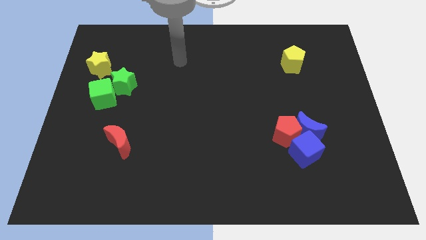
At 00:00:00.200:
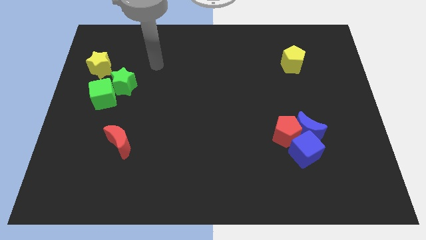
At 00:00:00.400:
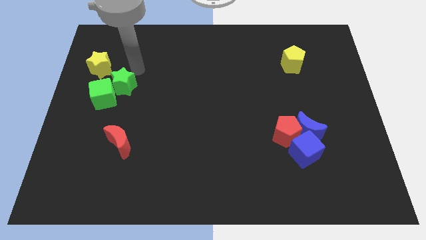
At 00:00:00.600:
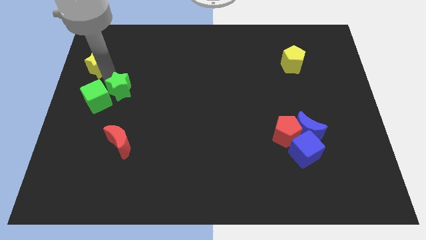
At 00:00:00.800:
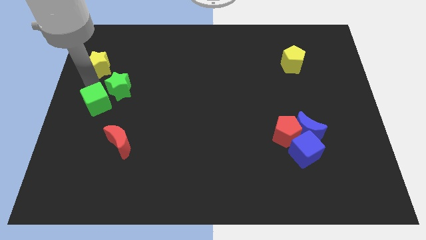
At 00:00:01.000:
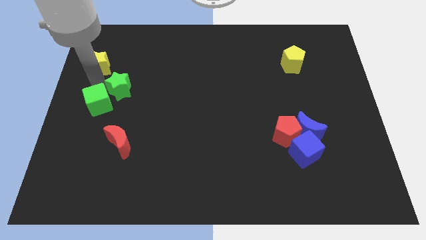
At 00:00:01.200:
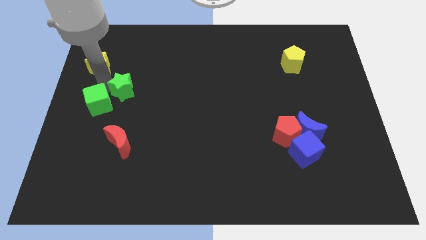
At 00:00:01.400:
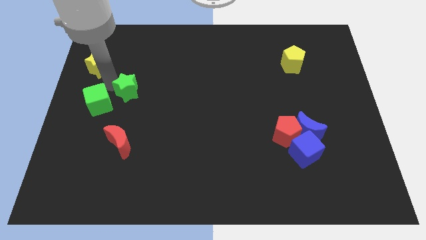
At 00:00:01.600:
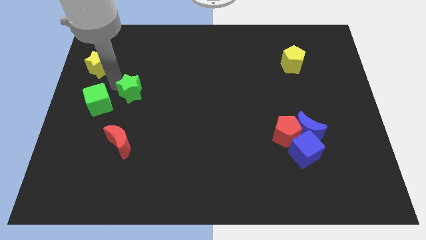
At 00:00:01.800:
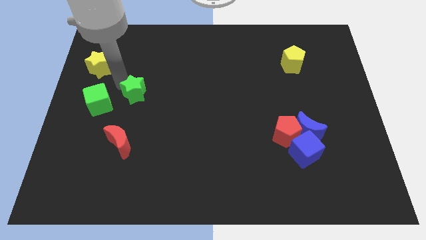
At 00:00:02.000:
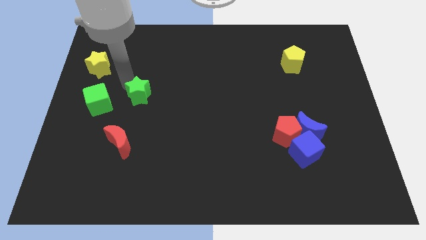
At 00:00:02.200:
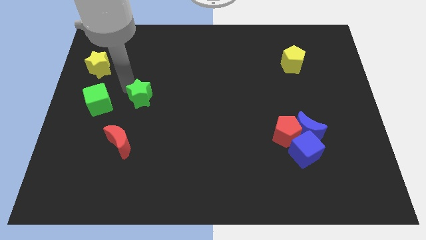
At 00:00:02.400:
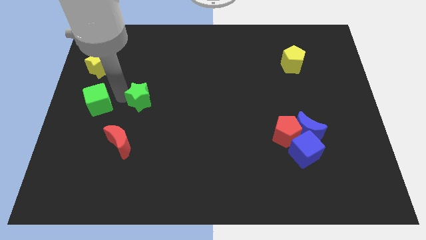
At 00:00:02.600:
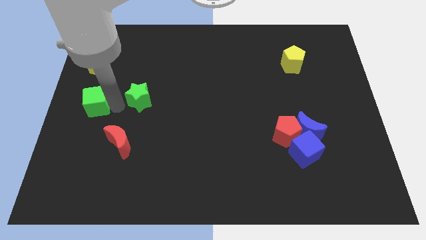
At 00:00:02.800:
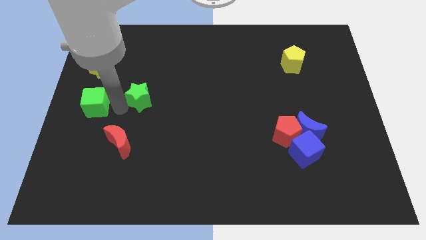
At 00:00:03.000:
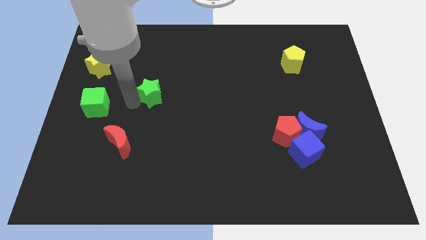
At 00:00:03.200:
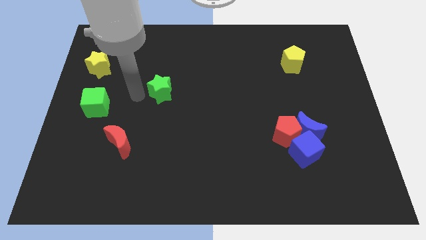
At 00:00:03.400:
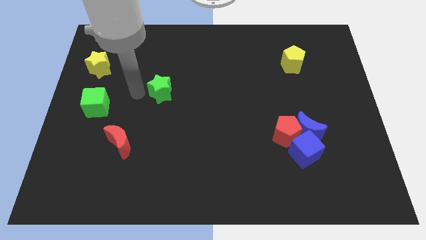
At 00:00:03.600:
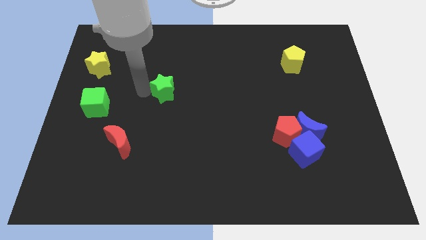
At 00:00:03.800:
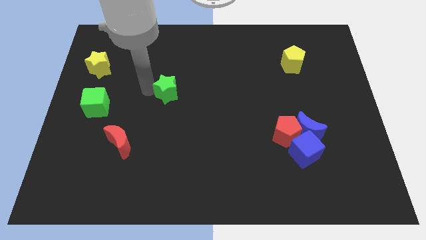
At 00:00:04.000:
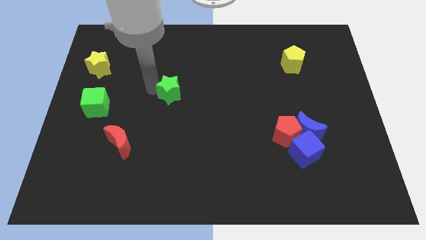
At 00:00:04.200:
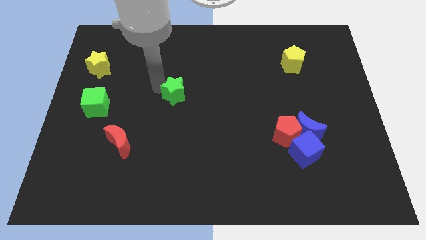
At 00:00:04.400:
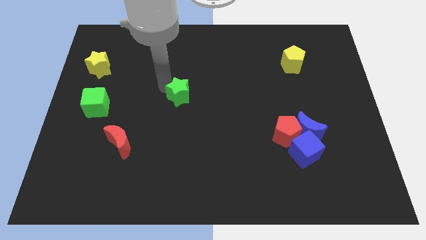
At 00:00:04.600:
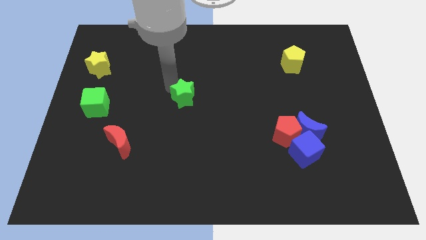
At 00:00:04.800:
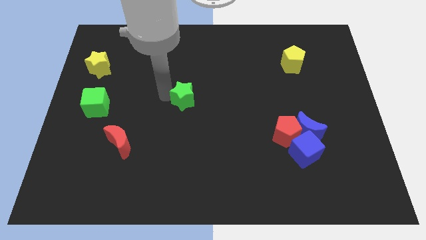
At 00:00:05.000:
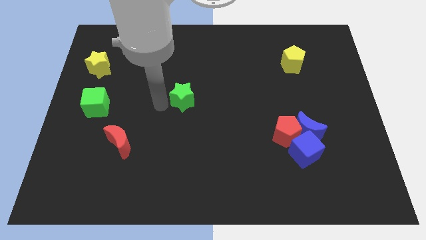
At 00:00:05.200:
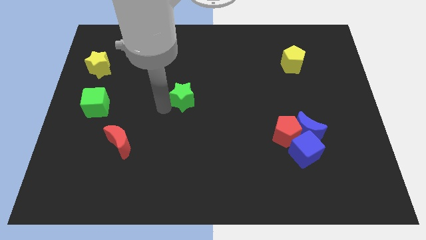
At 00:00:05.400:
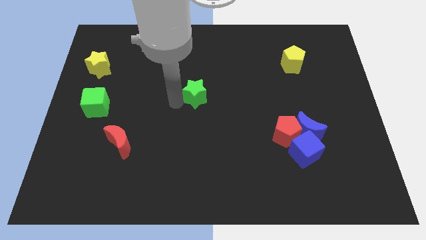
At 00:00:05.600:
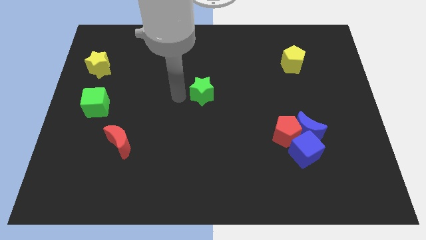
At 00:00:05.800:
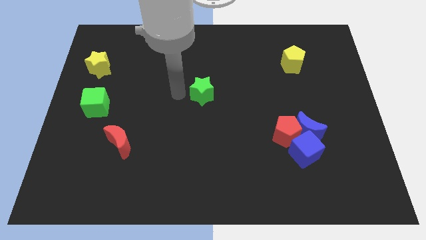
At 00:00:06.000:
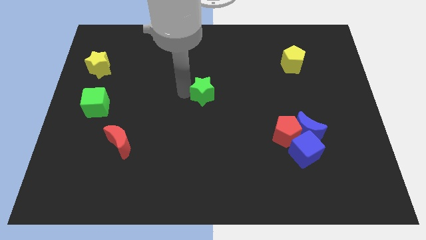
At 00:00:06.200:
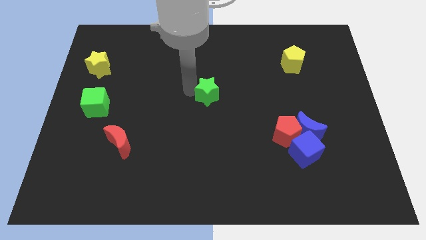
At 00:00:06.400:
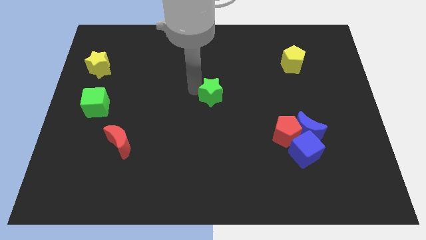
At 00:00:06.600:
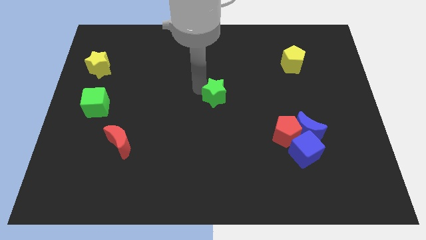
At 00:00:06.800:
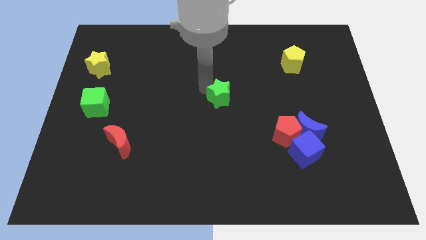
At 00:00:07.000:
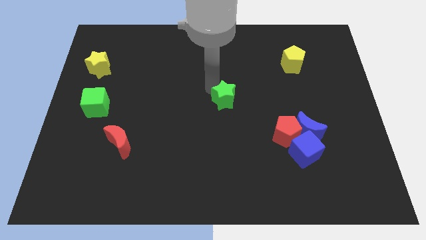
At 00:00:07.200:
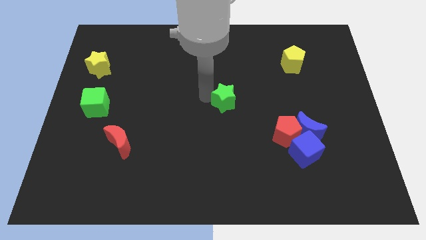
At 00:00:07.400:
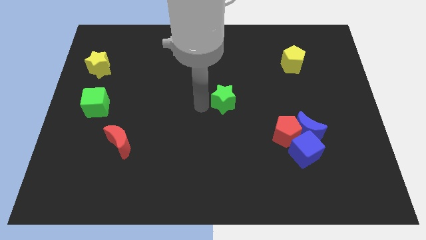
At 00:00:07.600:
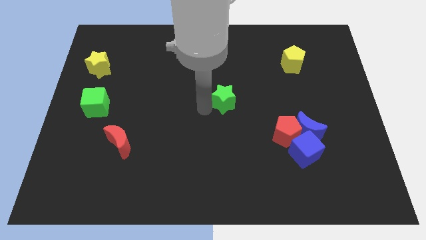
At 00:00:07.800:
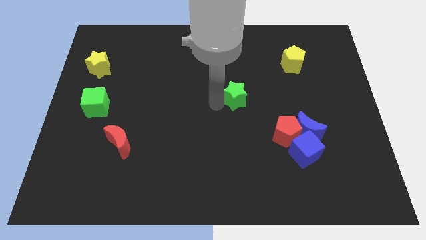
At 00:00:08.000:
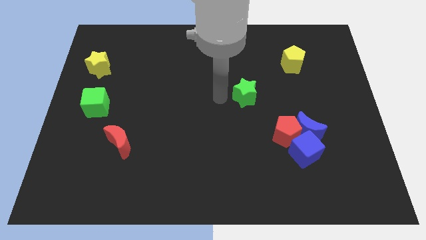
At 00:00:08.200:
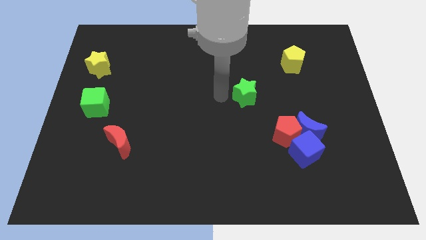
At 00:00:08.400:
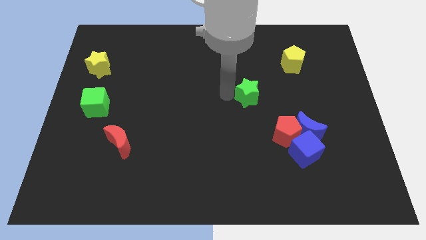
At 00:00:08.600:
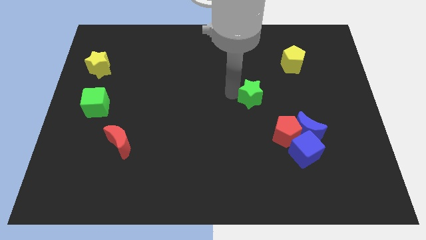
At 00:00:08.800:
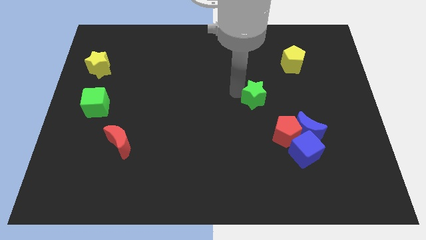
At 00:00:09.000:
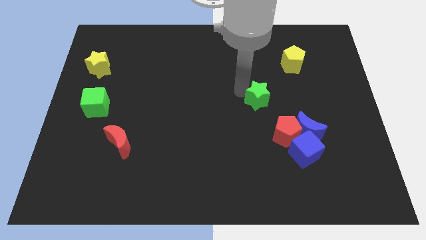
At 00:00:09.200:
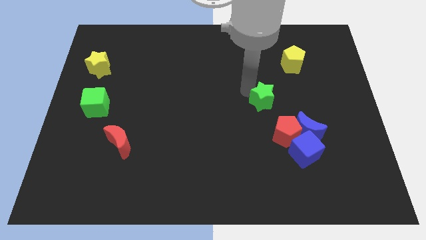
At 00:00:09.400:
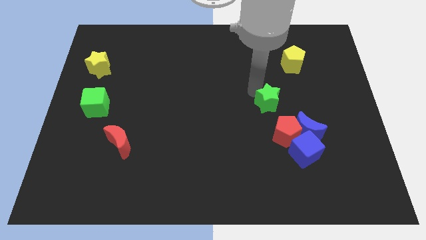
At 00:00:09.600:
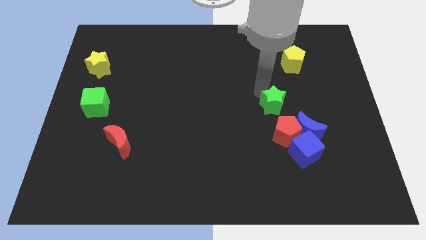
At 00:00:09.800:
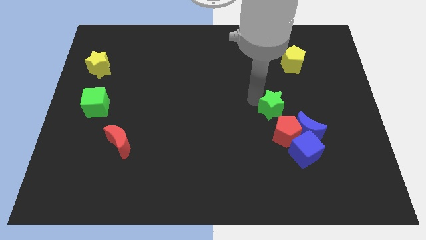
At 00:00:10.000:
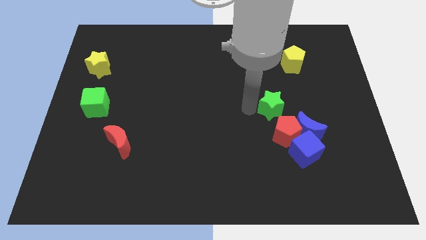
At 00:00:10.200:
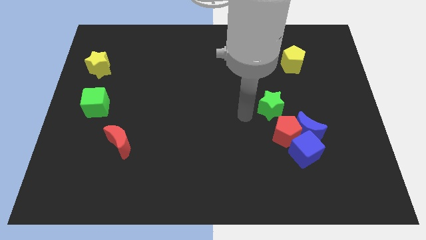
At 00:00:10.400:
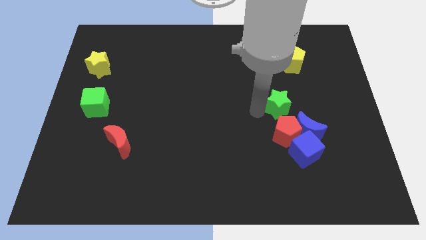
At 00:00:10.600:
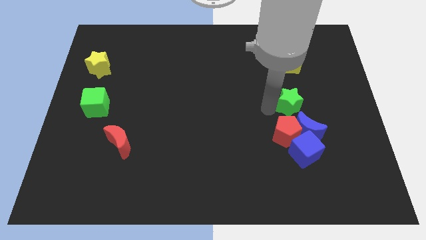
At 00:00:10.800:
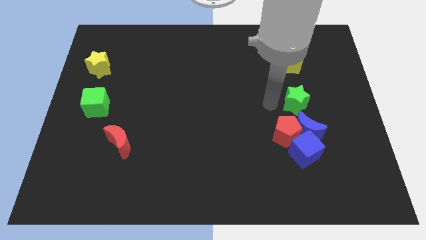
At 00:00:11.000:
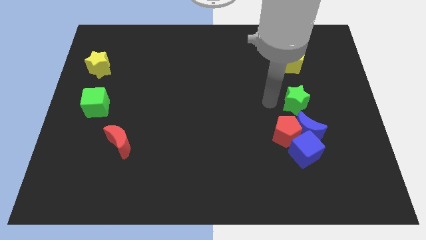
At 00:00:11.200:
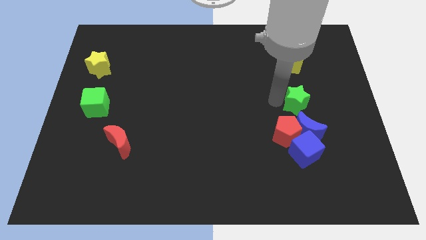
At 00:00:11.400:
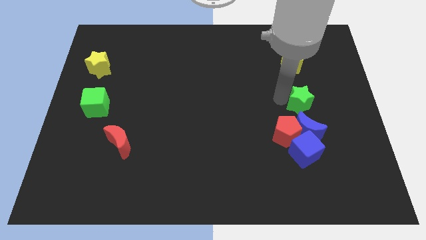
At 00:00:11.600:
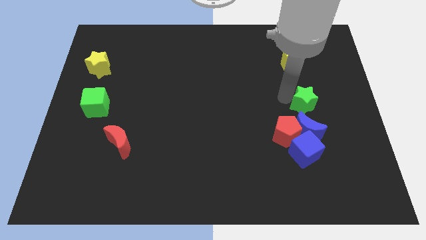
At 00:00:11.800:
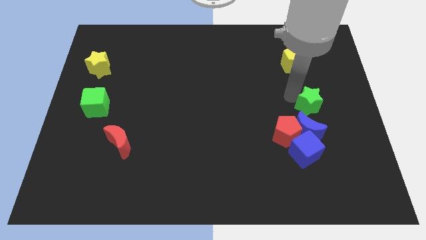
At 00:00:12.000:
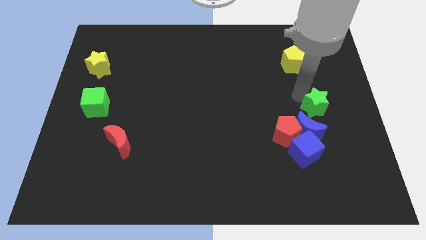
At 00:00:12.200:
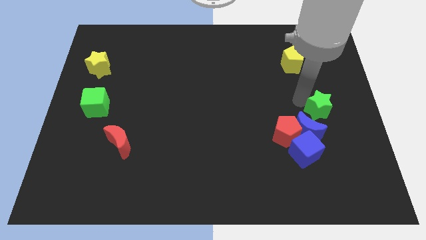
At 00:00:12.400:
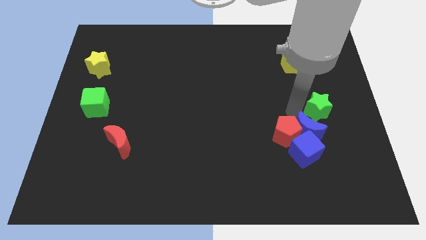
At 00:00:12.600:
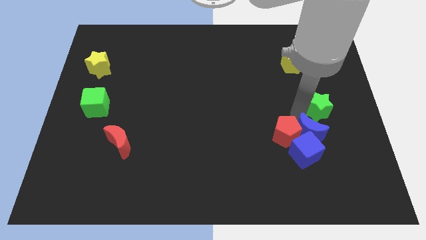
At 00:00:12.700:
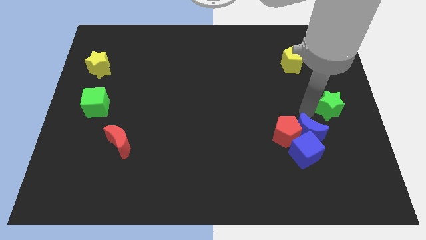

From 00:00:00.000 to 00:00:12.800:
move the green star to the center right
